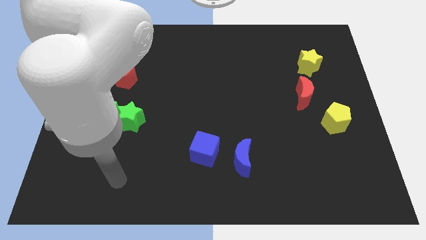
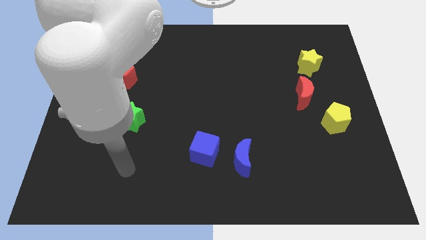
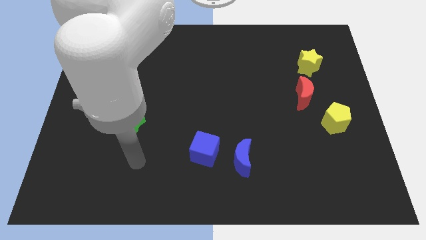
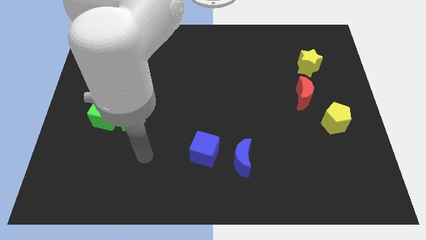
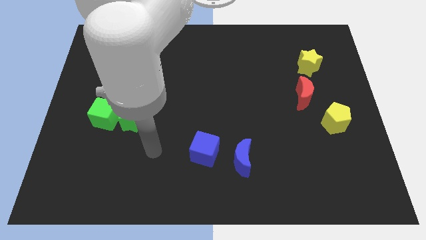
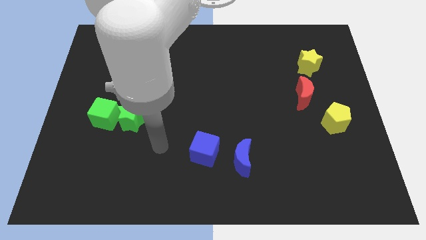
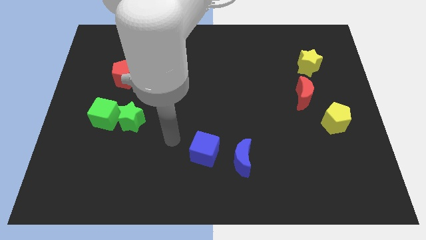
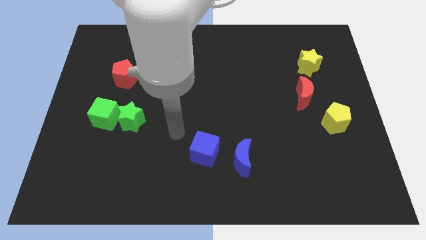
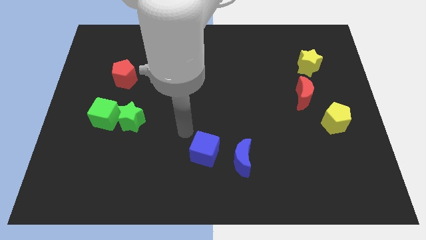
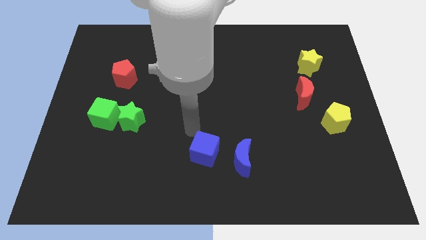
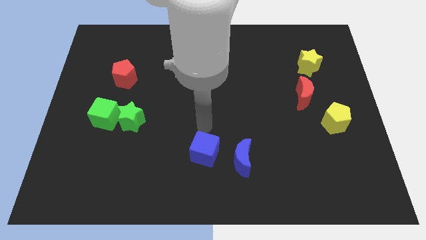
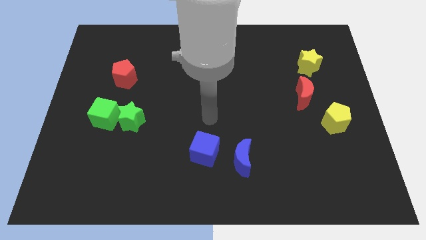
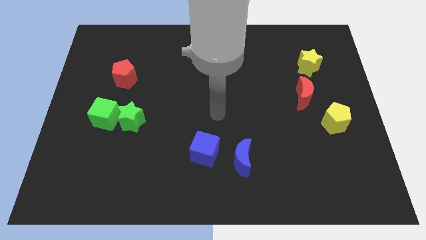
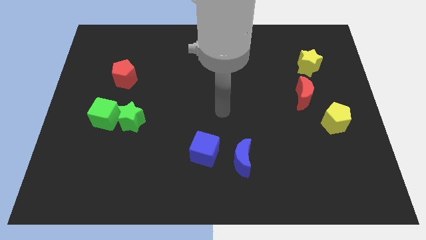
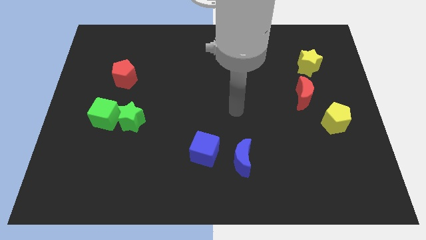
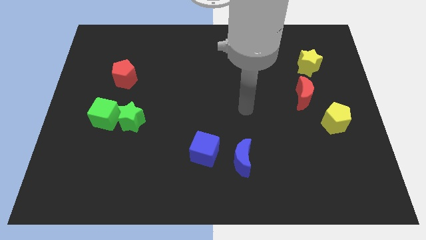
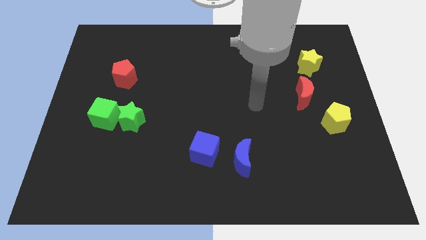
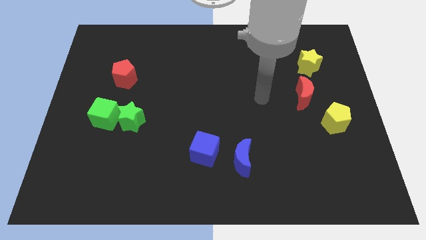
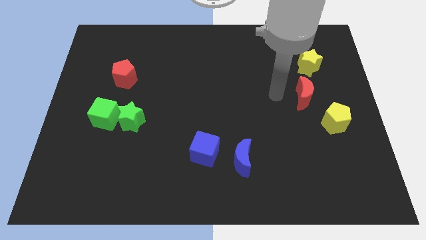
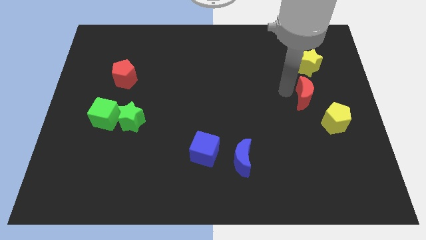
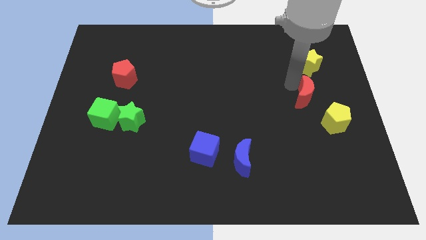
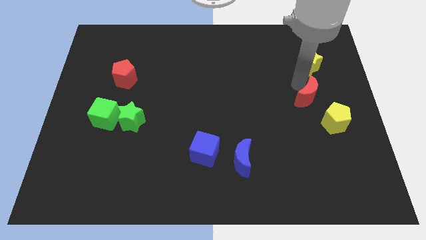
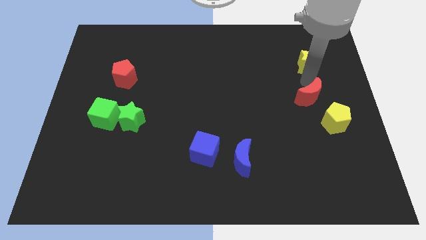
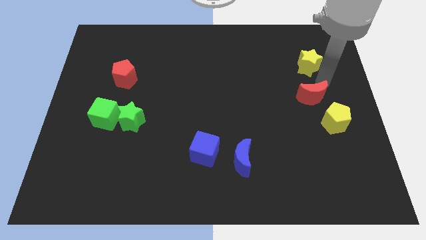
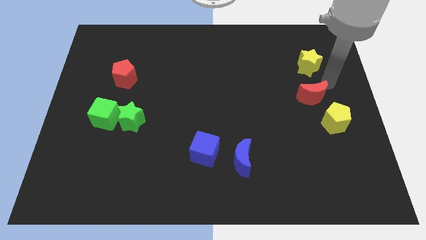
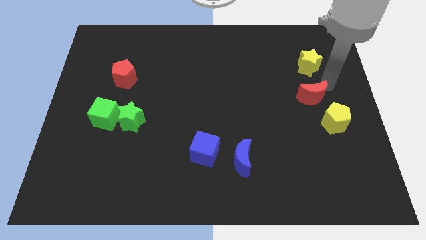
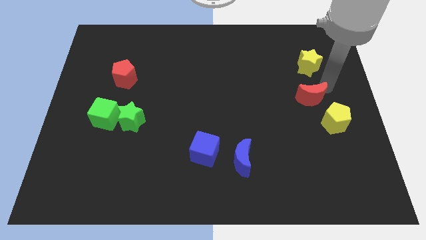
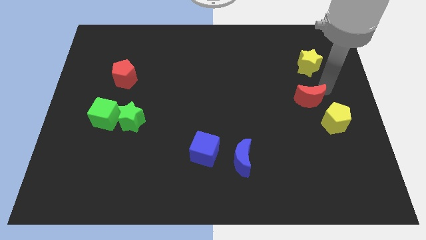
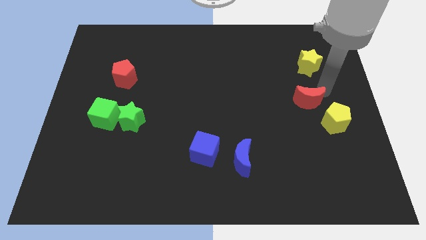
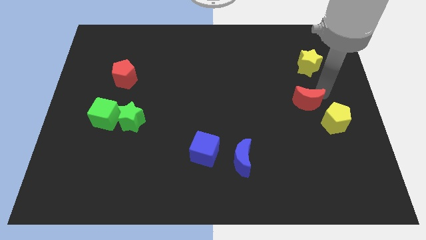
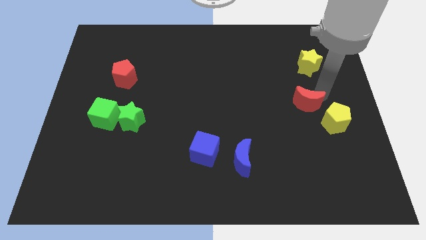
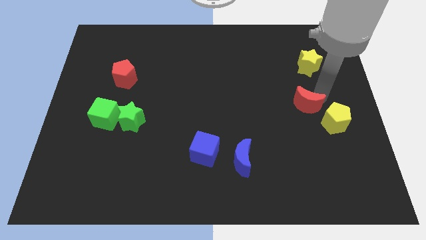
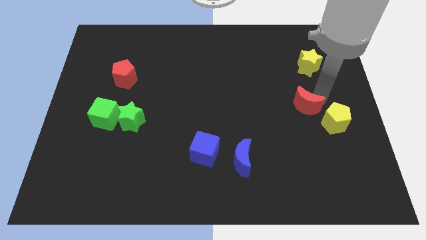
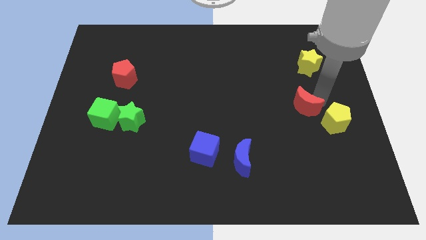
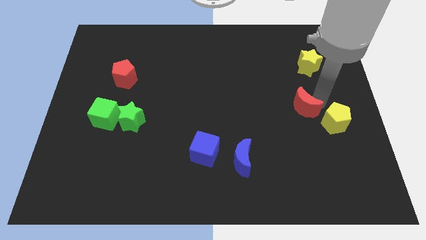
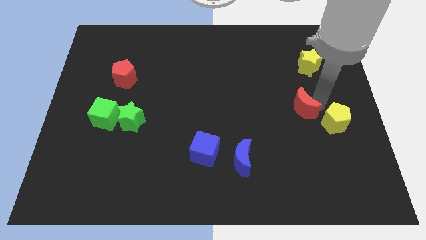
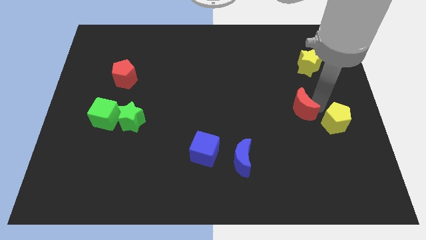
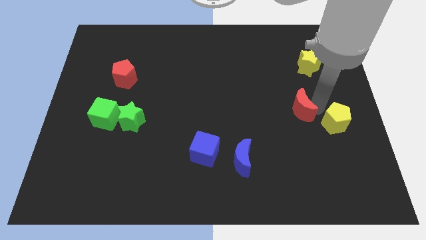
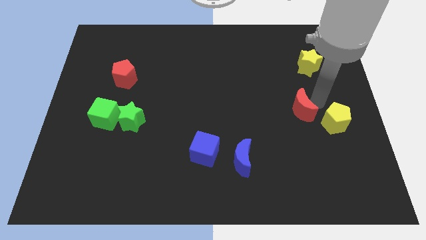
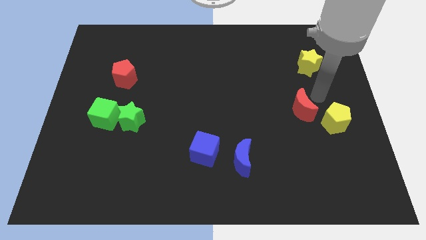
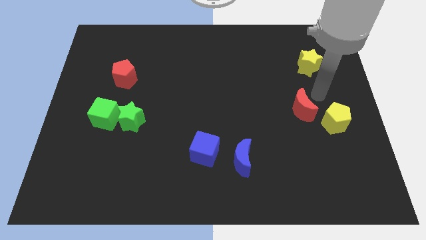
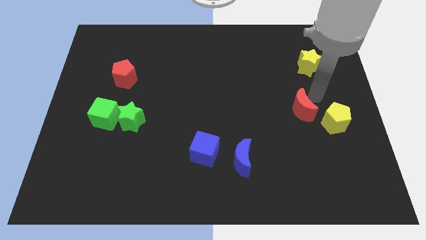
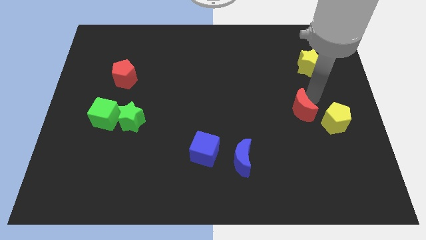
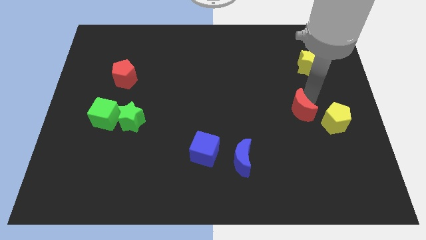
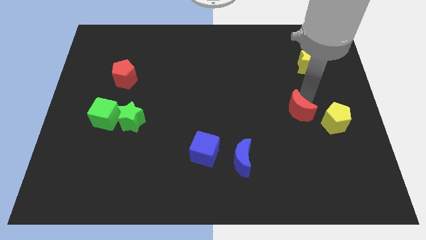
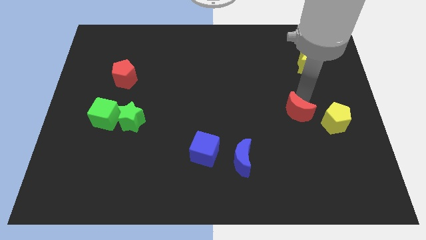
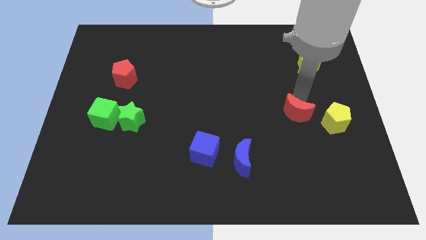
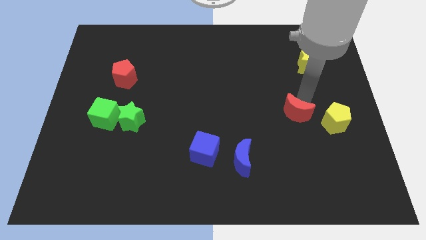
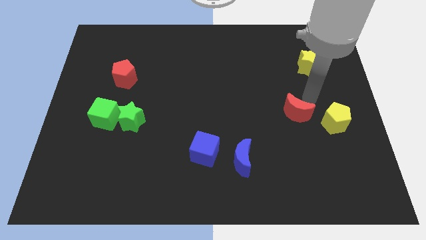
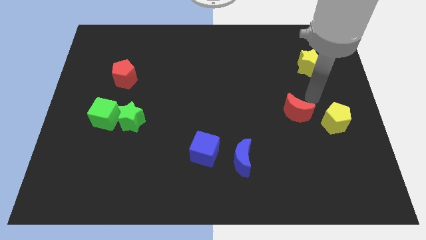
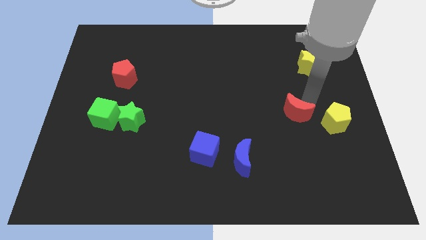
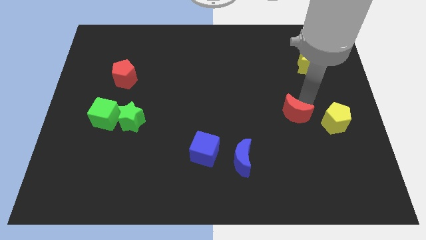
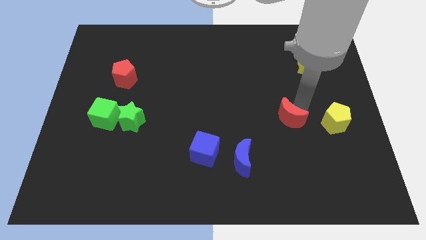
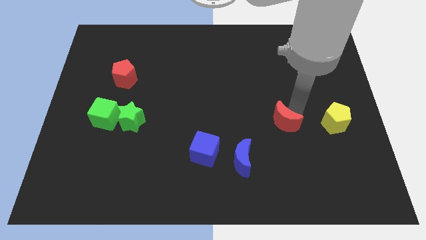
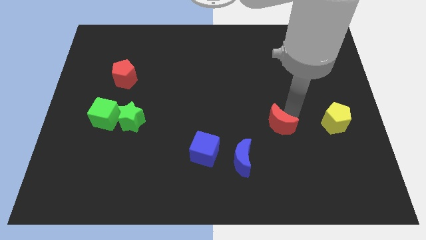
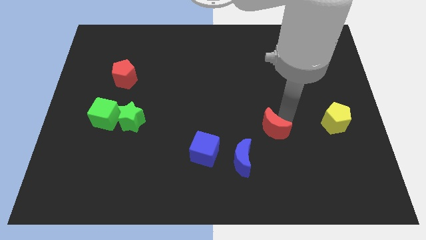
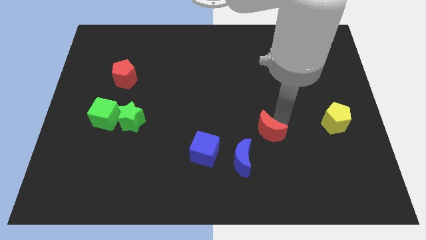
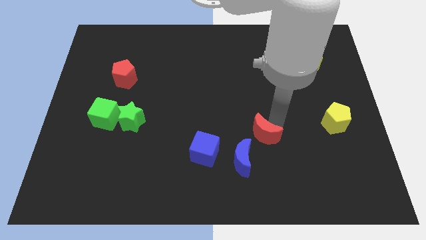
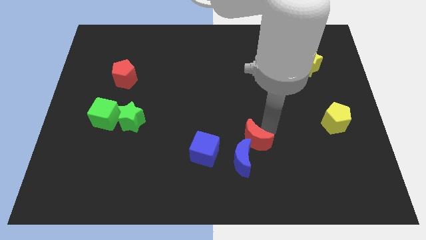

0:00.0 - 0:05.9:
slide the red moon to the blue moon

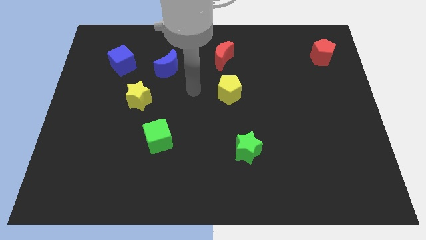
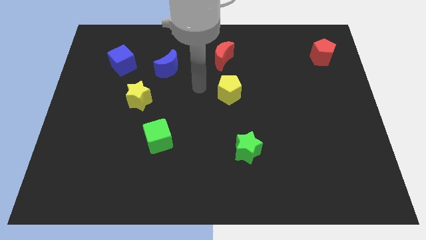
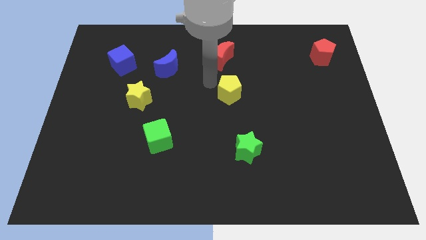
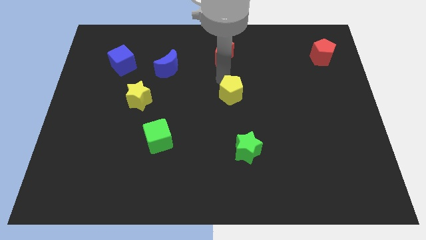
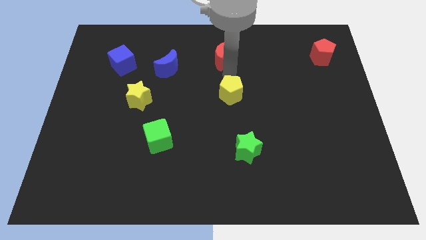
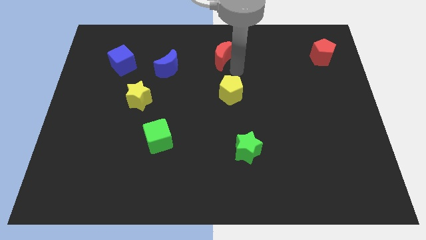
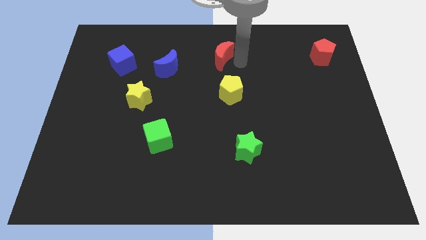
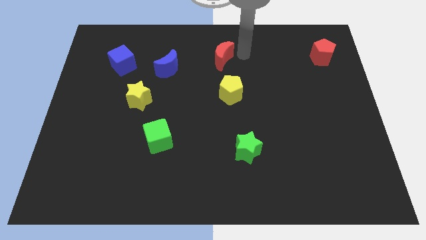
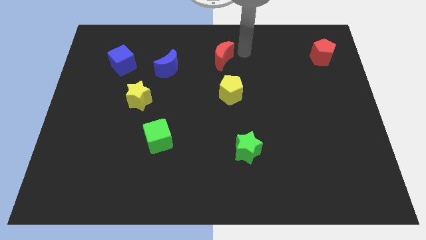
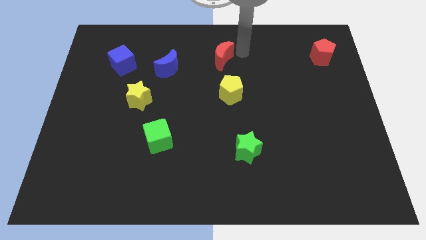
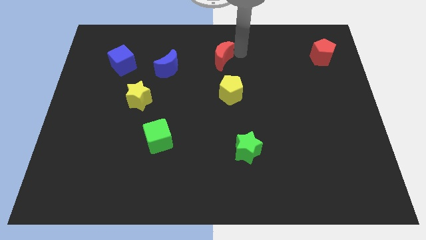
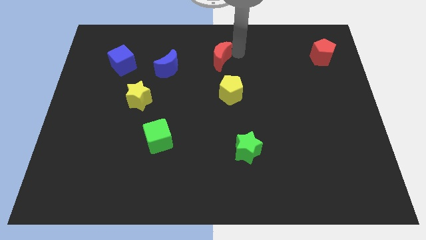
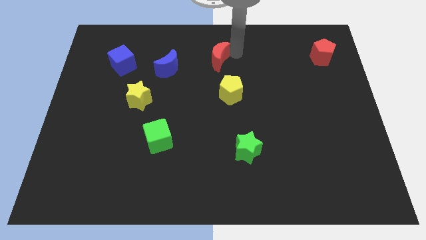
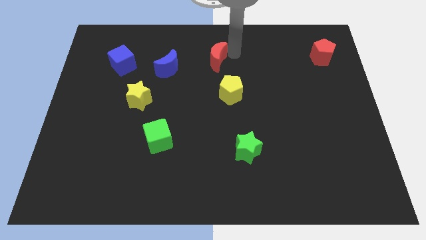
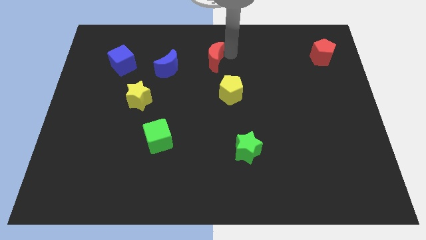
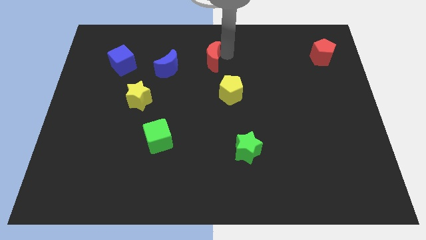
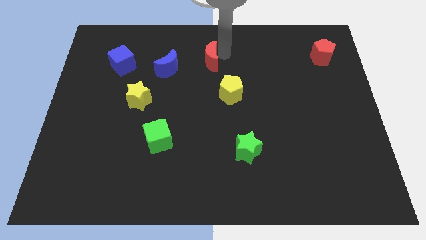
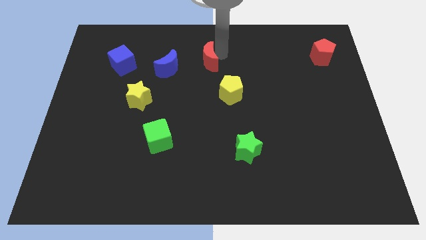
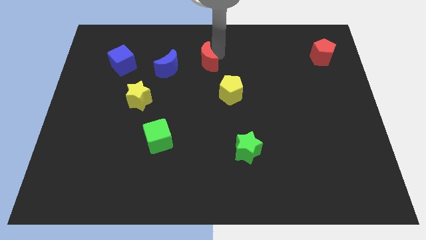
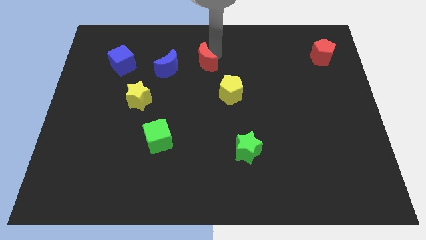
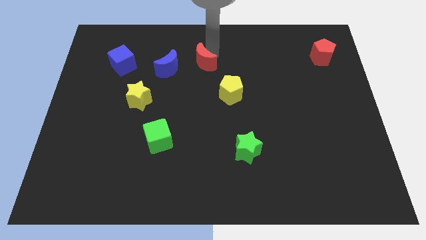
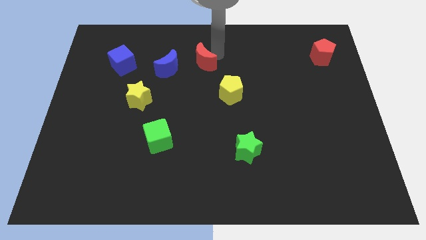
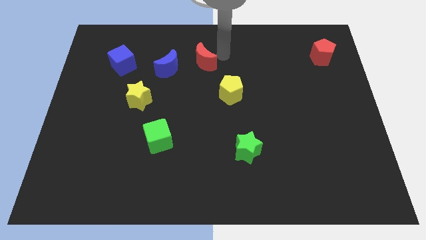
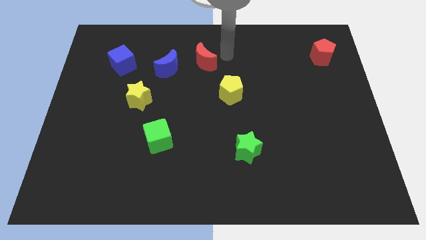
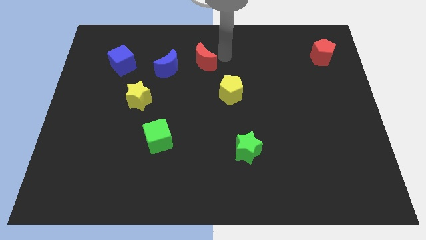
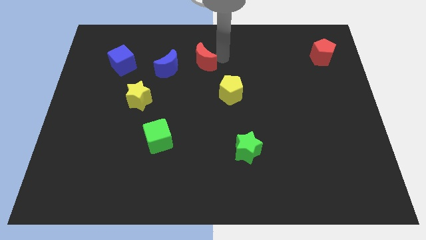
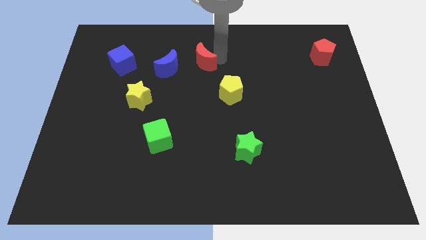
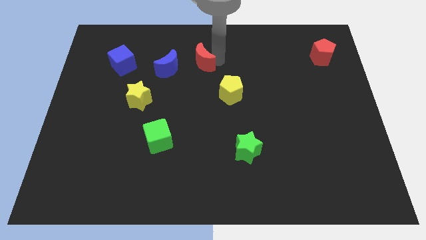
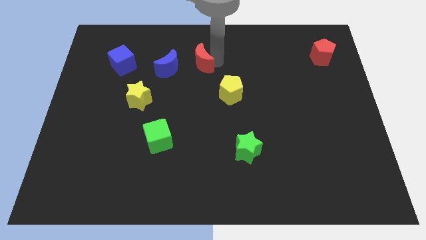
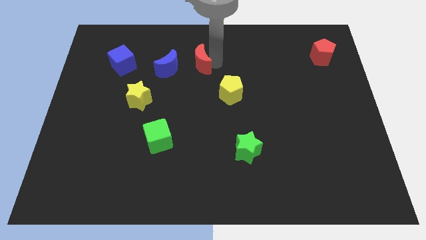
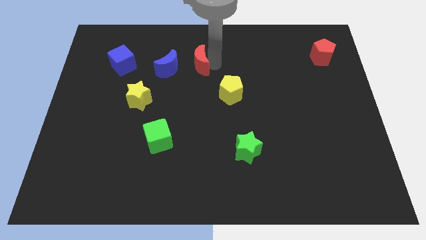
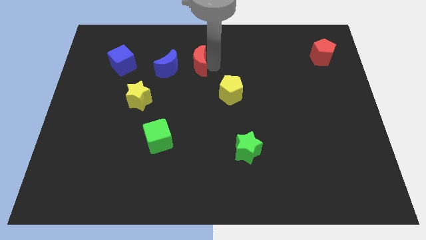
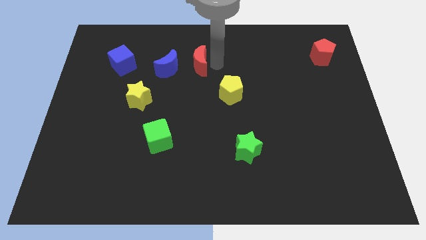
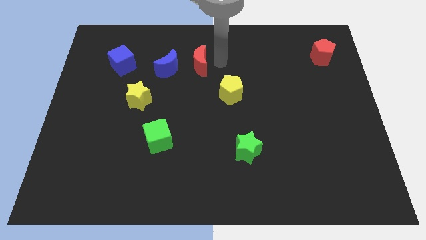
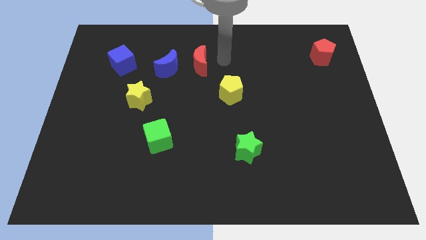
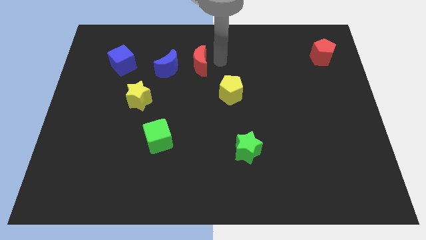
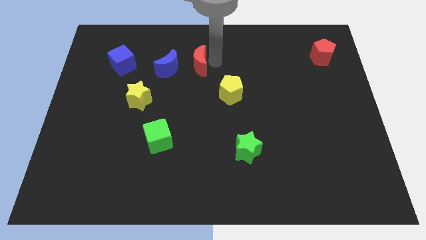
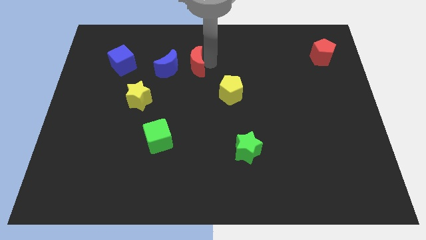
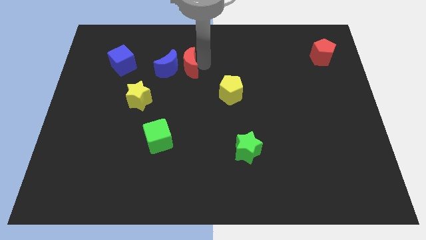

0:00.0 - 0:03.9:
slide the red moon towards the blue moon
